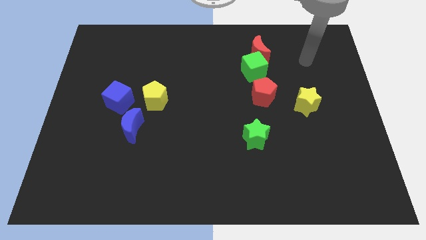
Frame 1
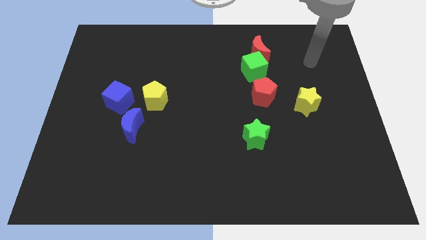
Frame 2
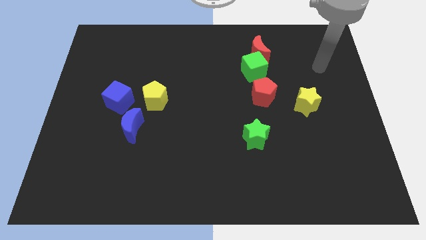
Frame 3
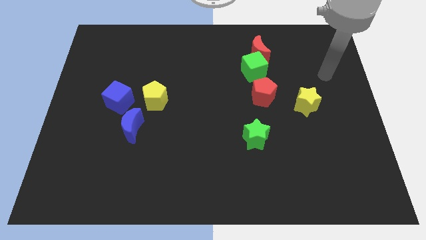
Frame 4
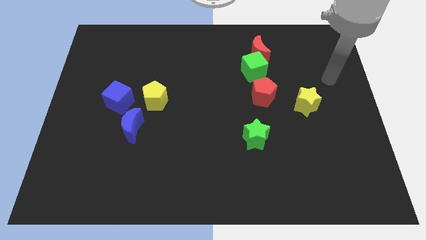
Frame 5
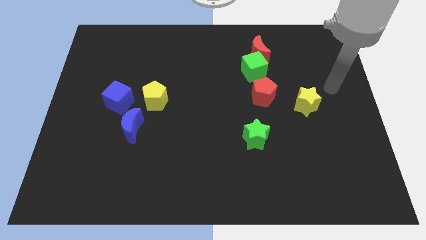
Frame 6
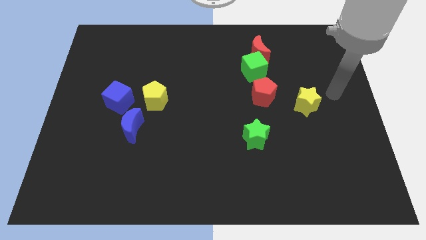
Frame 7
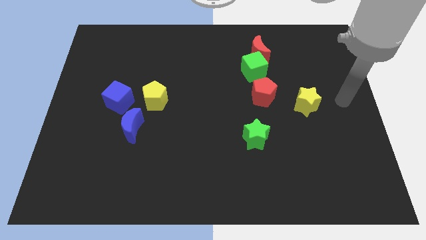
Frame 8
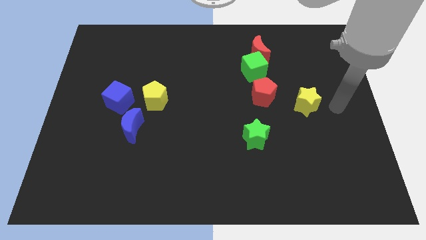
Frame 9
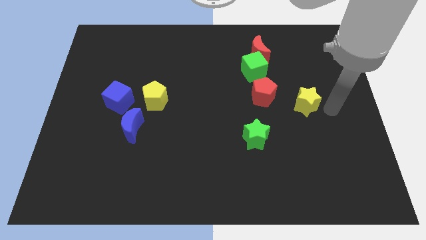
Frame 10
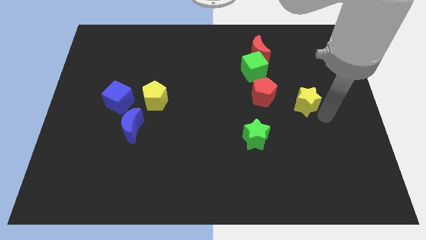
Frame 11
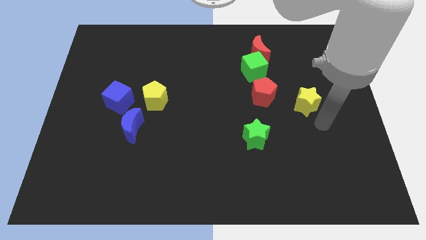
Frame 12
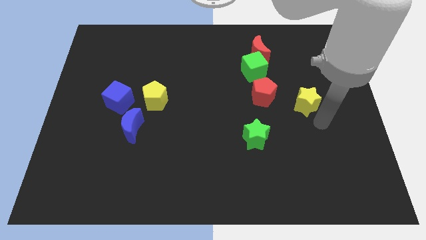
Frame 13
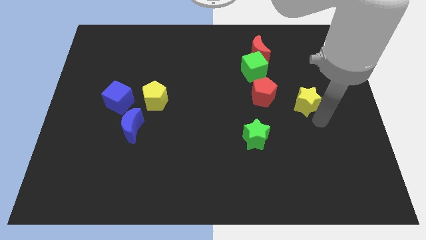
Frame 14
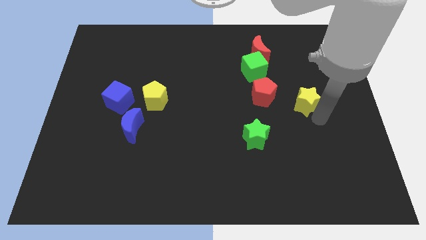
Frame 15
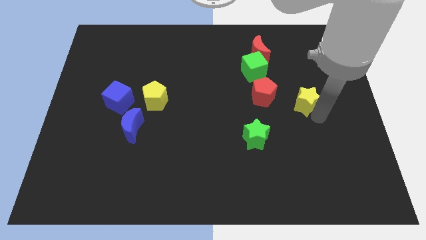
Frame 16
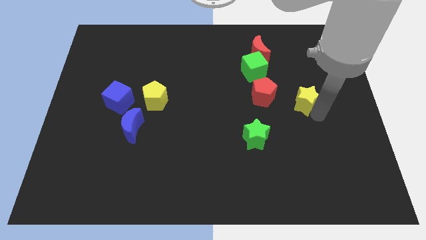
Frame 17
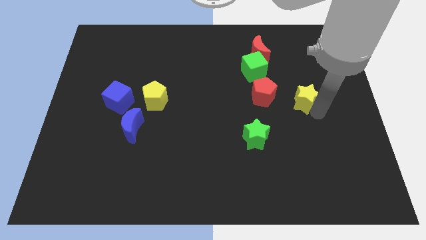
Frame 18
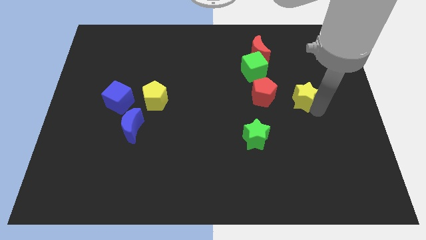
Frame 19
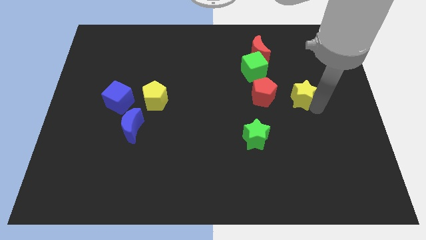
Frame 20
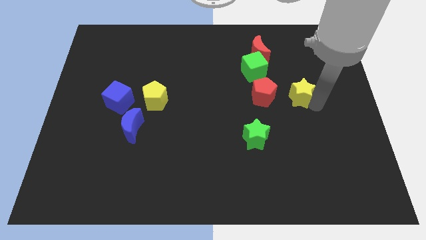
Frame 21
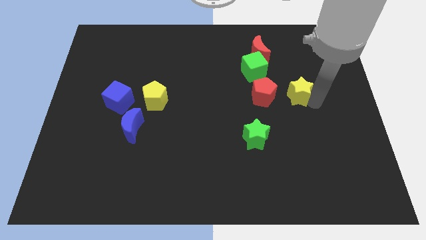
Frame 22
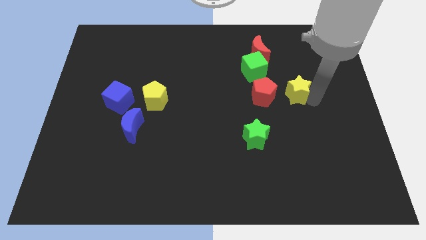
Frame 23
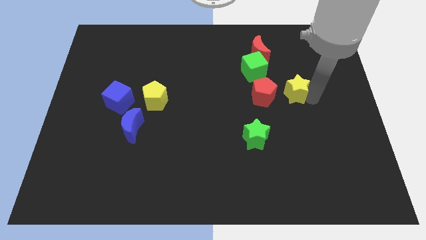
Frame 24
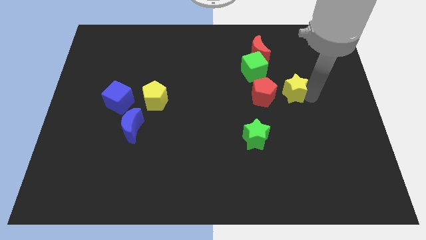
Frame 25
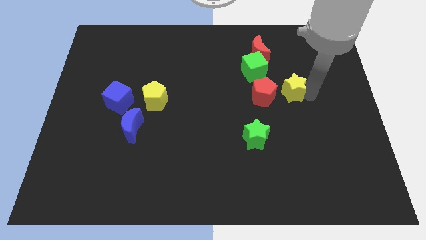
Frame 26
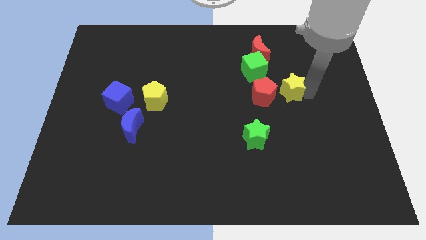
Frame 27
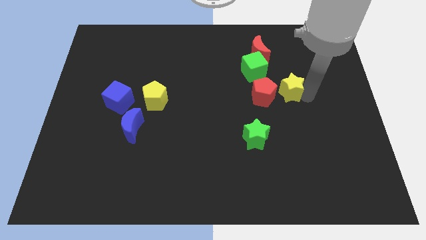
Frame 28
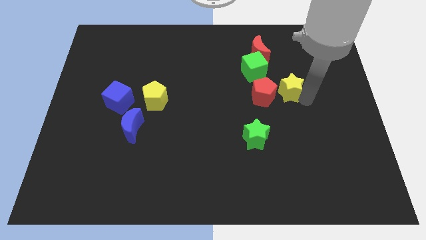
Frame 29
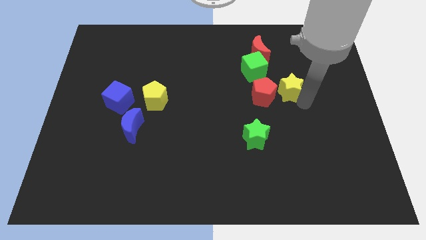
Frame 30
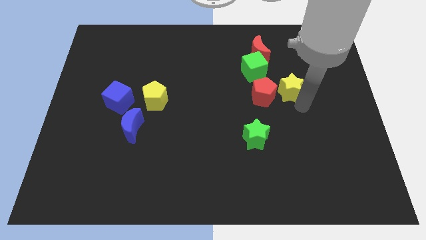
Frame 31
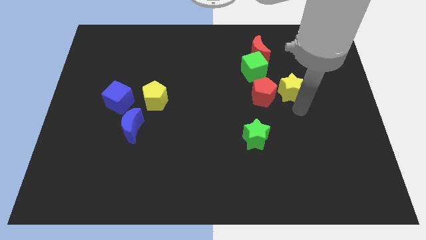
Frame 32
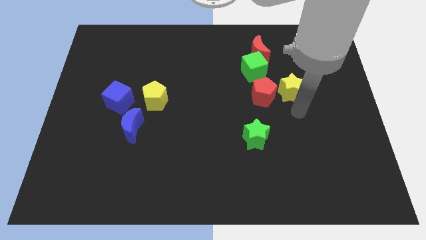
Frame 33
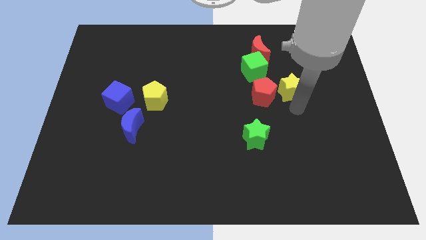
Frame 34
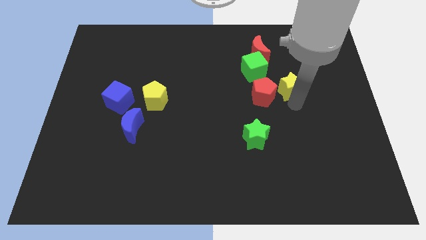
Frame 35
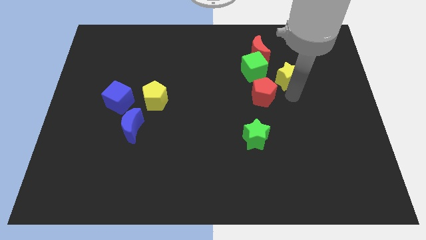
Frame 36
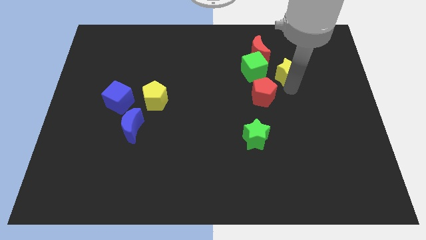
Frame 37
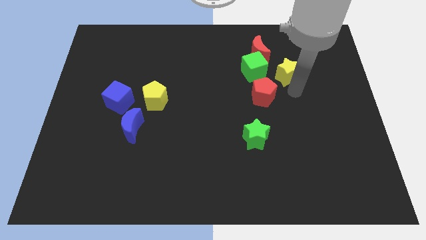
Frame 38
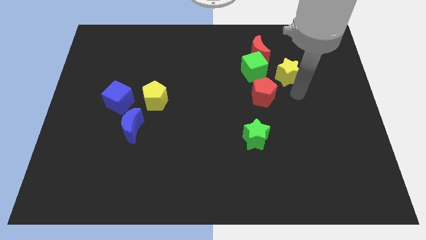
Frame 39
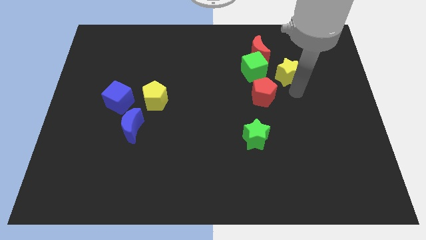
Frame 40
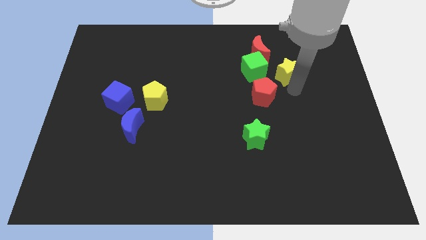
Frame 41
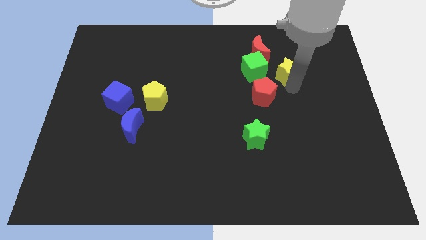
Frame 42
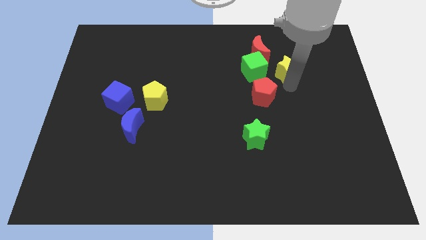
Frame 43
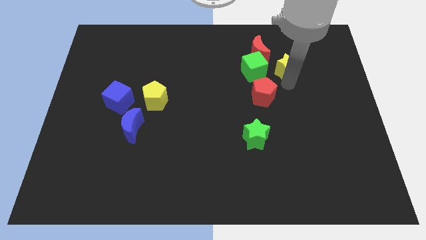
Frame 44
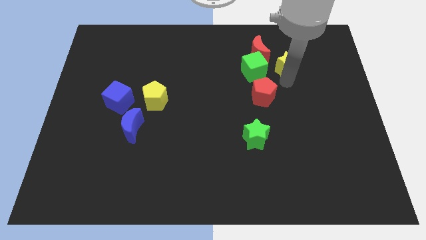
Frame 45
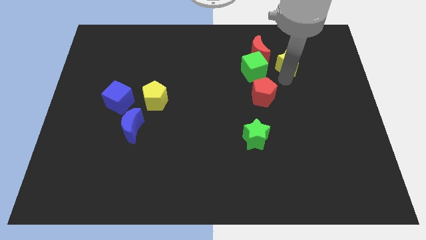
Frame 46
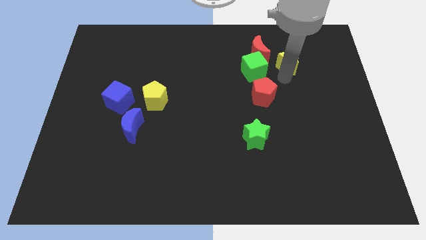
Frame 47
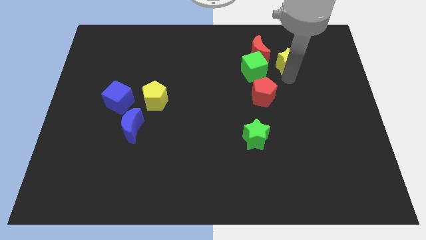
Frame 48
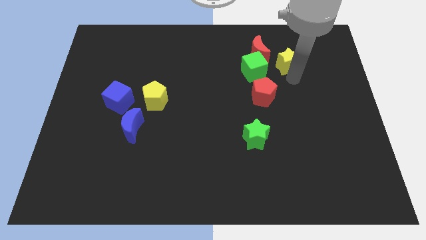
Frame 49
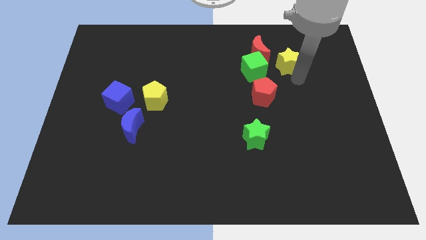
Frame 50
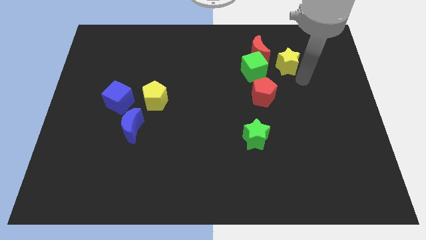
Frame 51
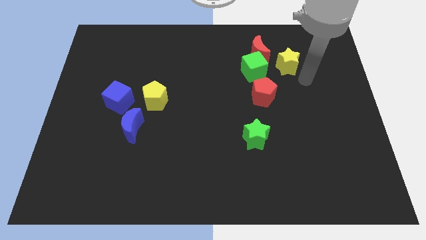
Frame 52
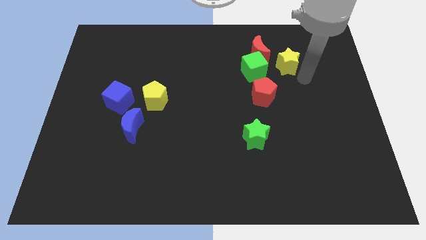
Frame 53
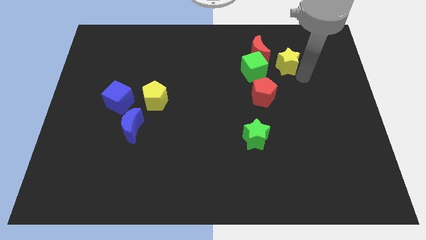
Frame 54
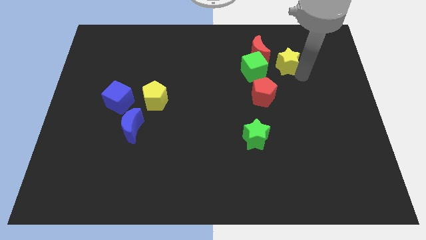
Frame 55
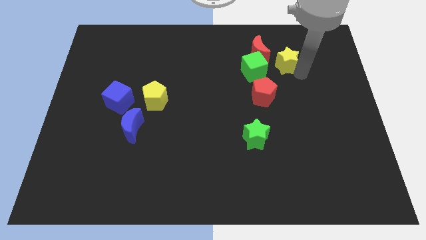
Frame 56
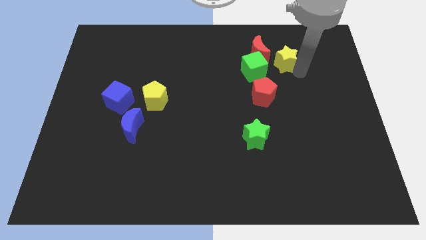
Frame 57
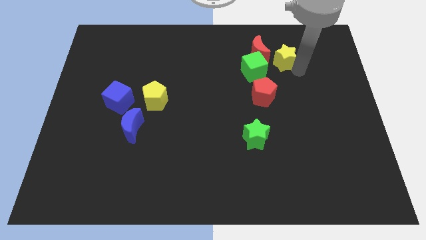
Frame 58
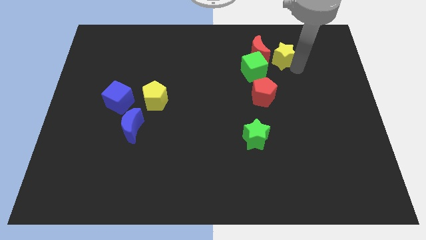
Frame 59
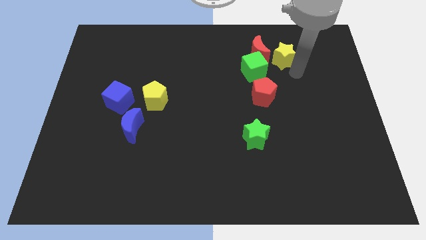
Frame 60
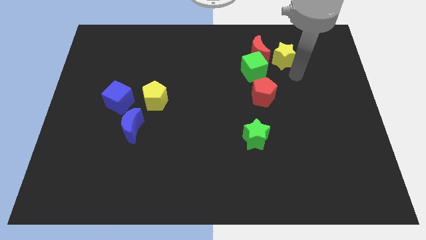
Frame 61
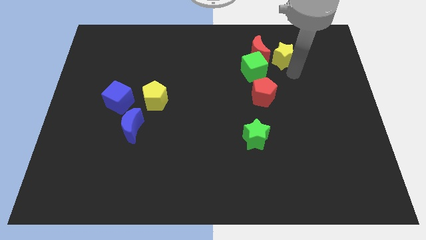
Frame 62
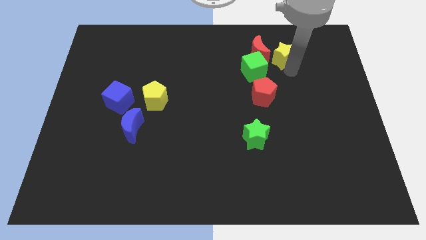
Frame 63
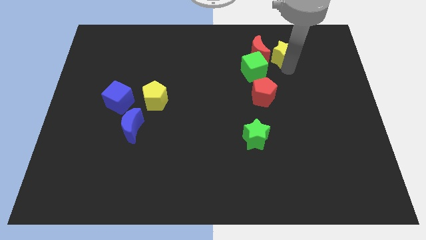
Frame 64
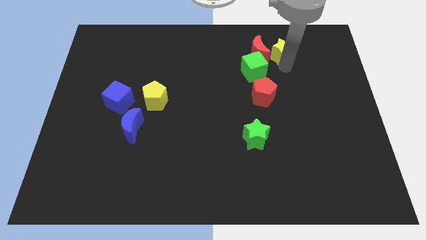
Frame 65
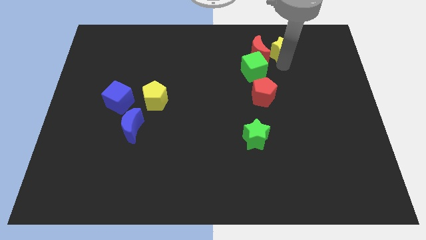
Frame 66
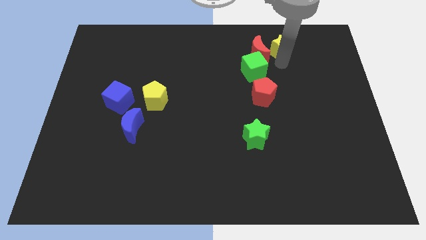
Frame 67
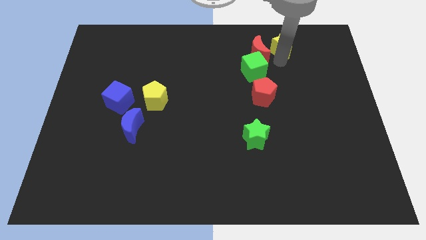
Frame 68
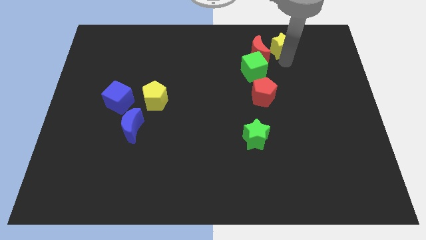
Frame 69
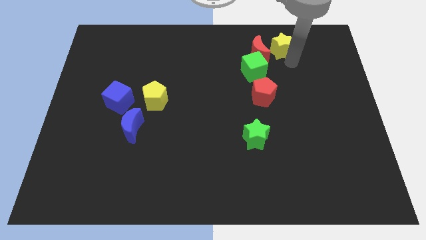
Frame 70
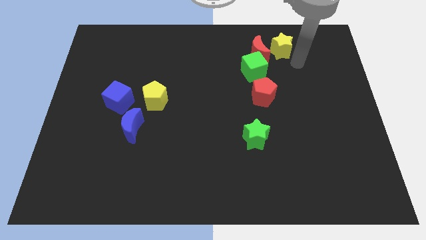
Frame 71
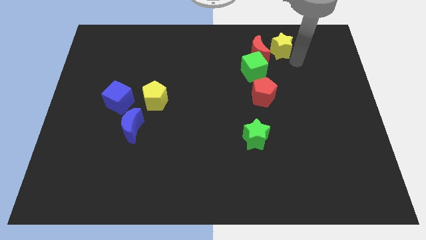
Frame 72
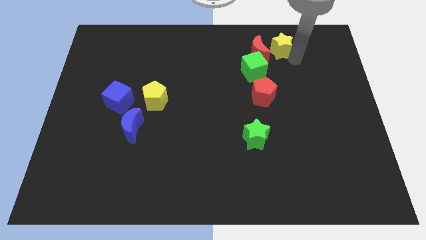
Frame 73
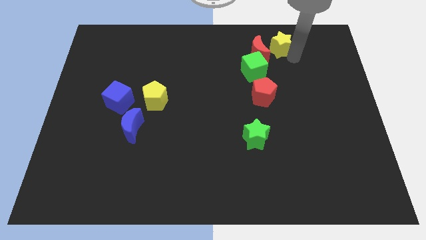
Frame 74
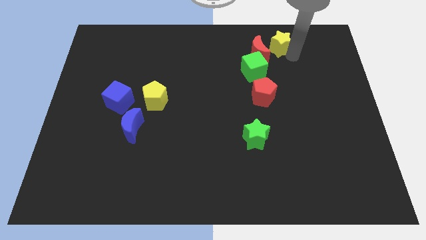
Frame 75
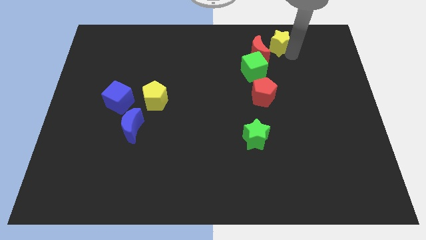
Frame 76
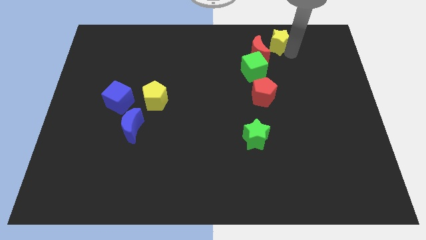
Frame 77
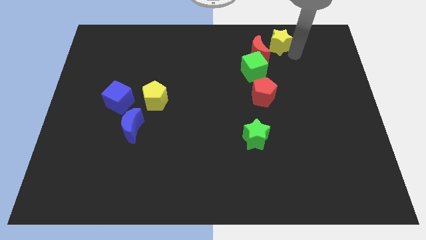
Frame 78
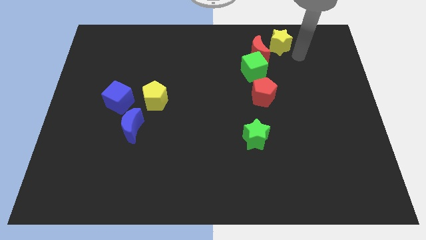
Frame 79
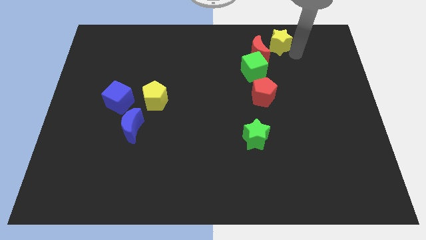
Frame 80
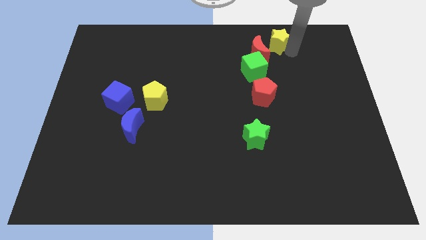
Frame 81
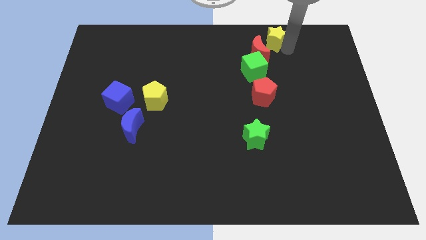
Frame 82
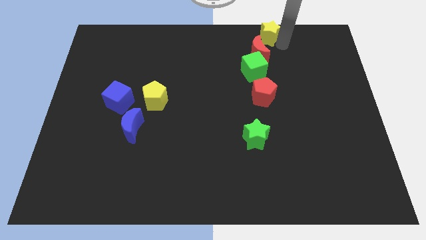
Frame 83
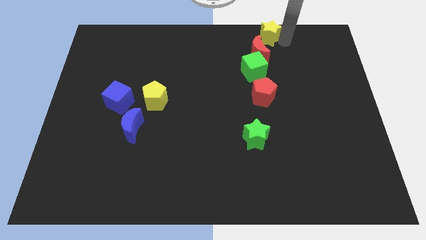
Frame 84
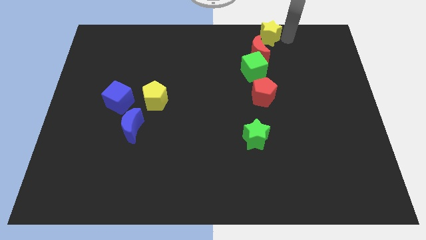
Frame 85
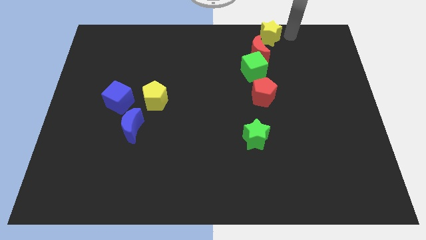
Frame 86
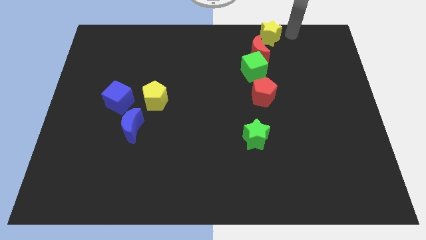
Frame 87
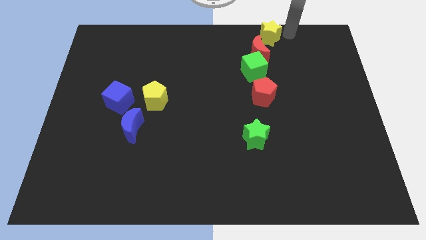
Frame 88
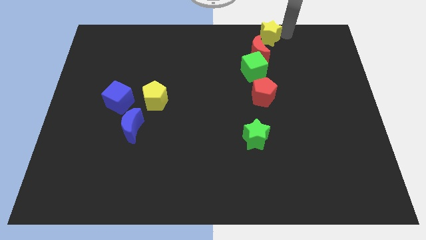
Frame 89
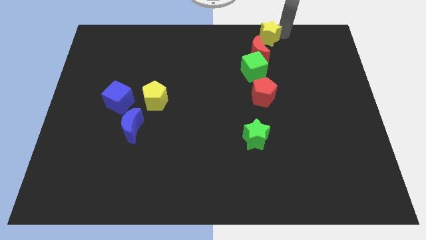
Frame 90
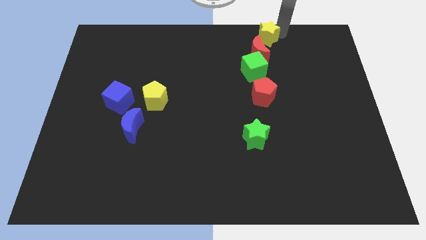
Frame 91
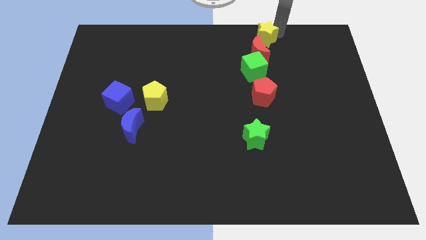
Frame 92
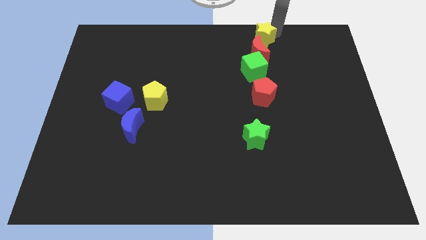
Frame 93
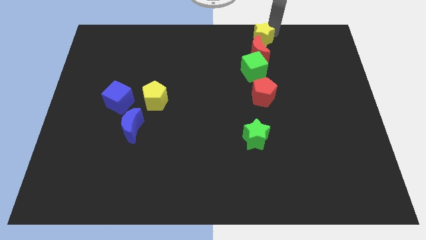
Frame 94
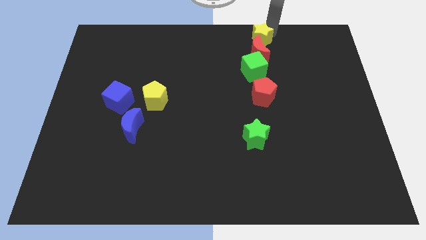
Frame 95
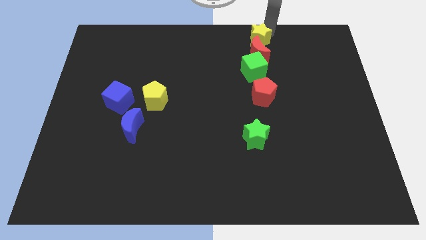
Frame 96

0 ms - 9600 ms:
push the yellow star to the top side
